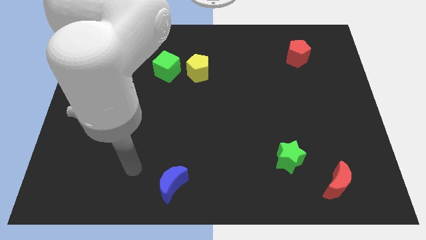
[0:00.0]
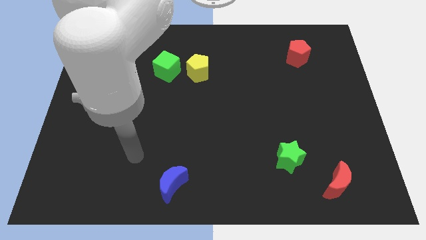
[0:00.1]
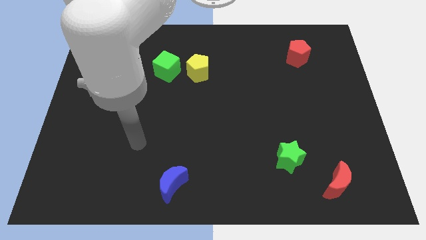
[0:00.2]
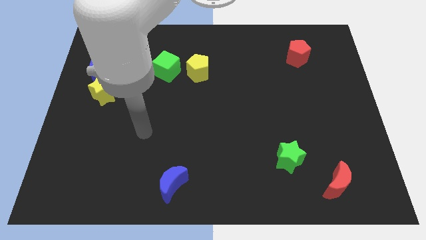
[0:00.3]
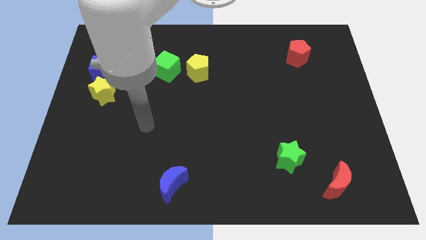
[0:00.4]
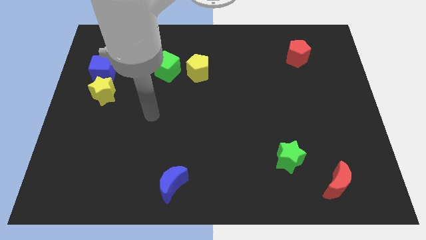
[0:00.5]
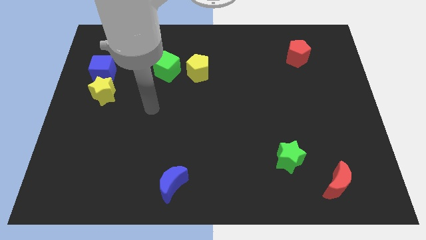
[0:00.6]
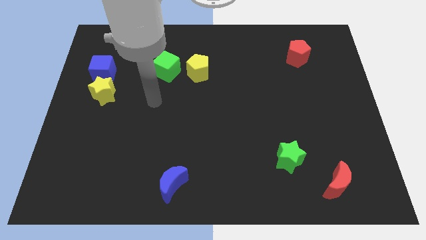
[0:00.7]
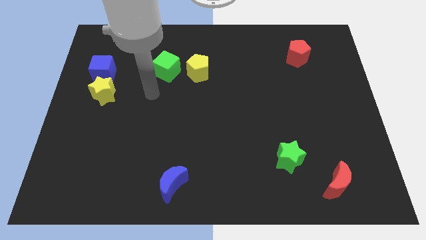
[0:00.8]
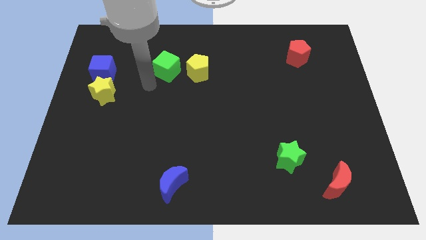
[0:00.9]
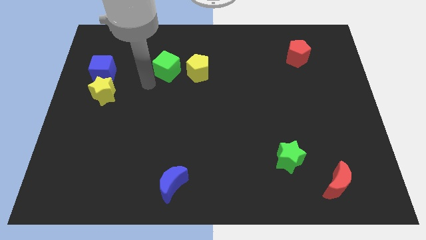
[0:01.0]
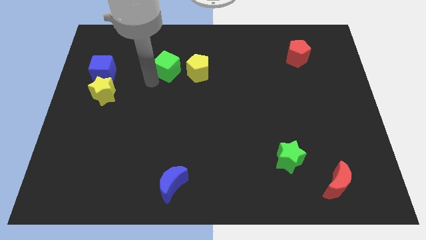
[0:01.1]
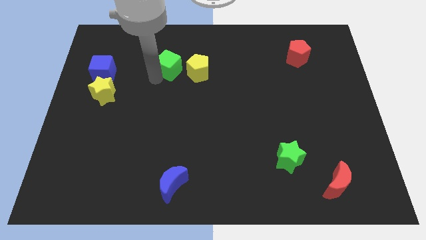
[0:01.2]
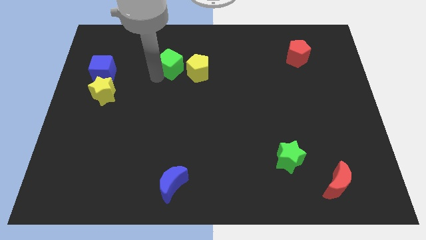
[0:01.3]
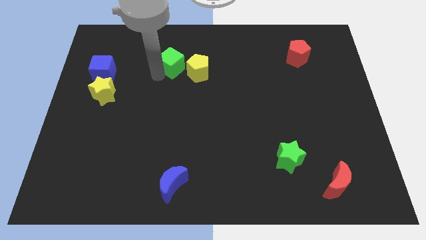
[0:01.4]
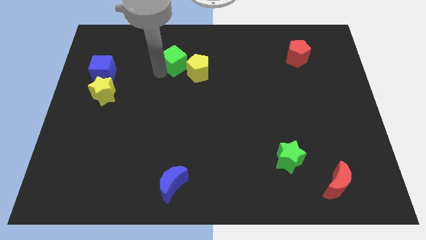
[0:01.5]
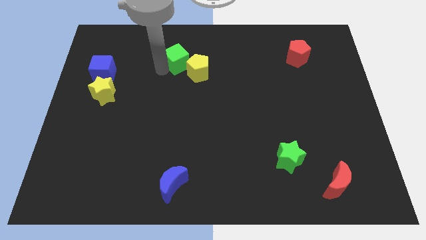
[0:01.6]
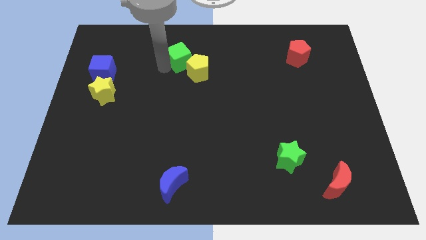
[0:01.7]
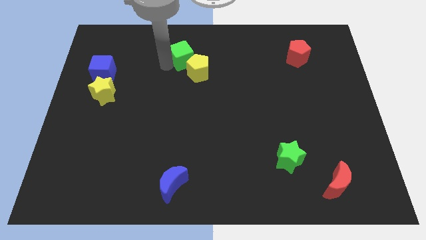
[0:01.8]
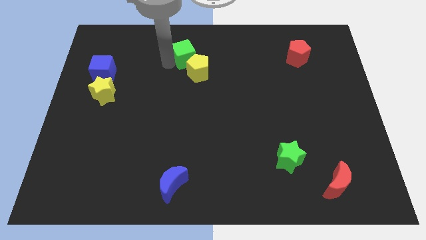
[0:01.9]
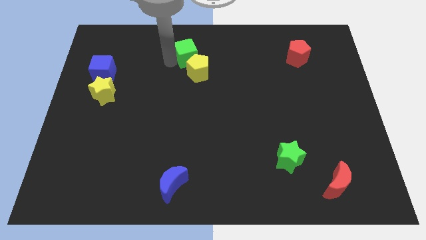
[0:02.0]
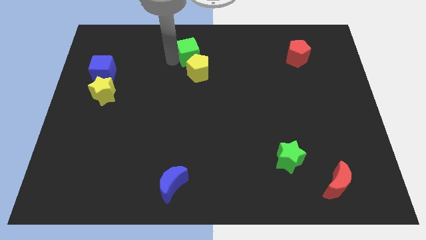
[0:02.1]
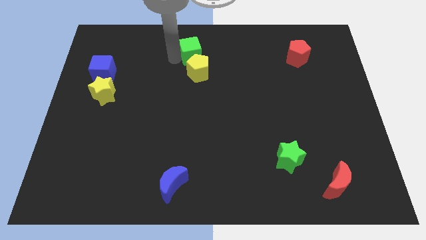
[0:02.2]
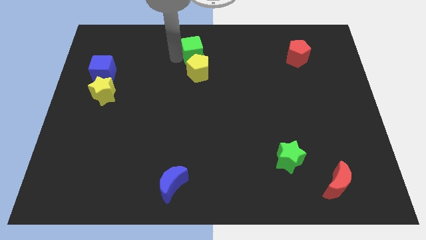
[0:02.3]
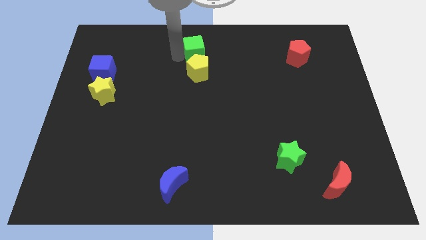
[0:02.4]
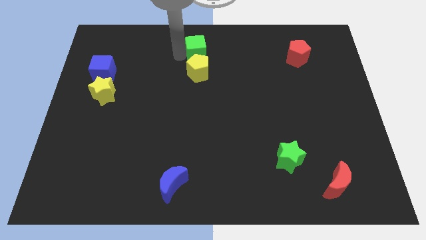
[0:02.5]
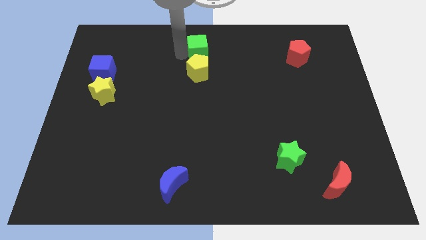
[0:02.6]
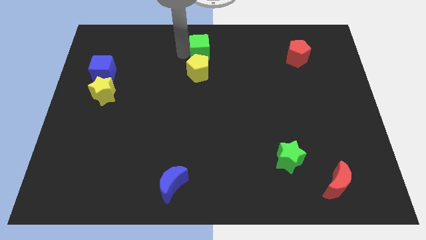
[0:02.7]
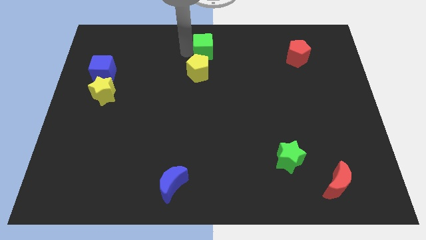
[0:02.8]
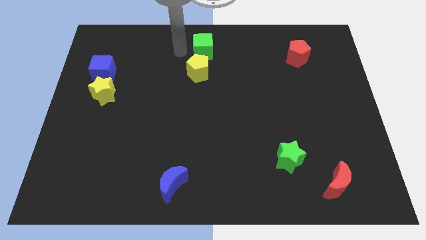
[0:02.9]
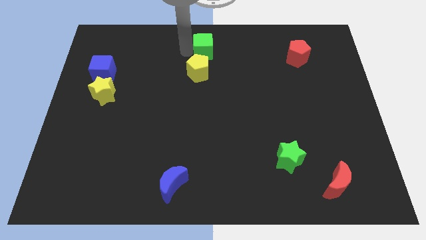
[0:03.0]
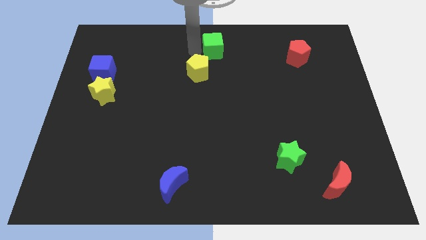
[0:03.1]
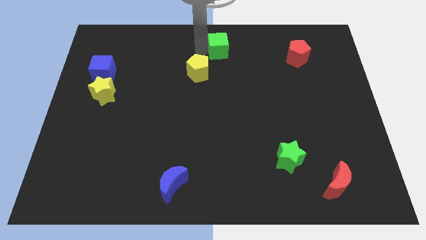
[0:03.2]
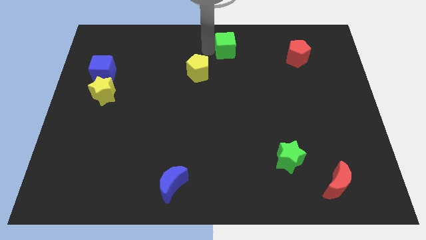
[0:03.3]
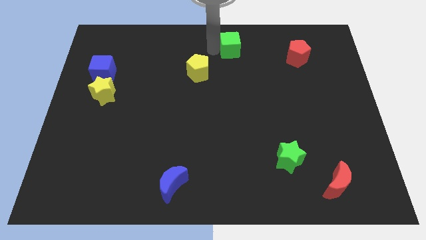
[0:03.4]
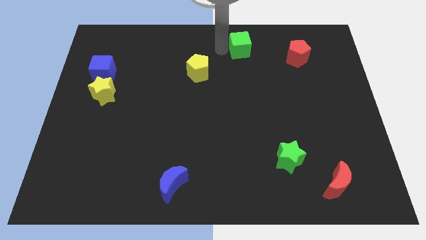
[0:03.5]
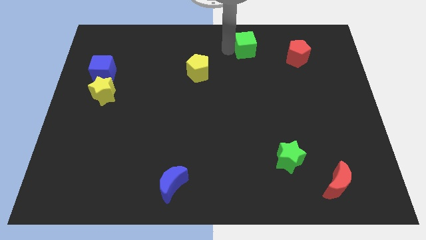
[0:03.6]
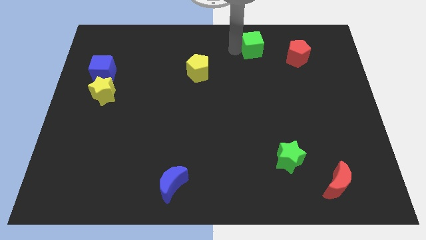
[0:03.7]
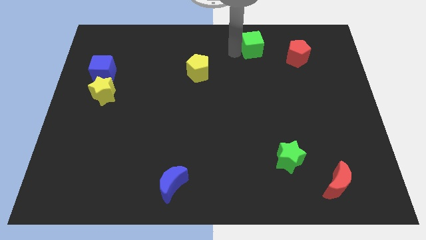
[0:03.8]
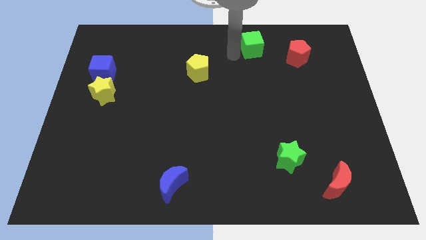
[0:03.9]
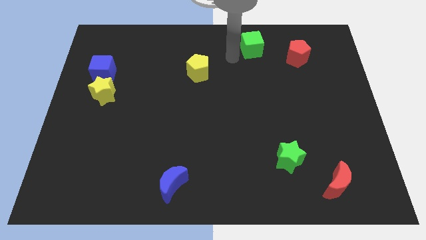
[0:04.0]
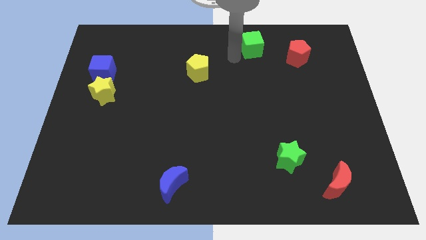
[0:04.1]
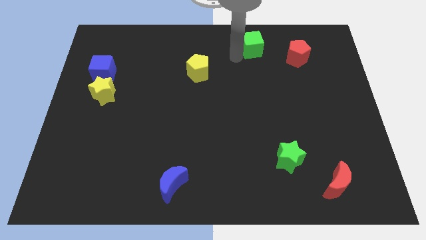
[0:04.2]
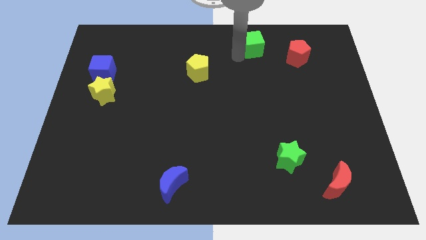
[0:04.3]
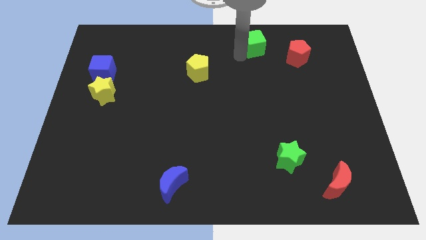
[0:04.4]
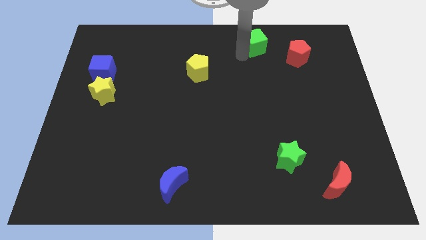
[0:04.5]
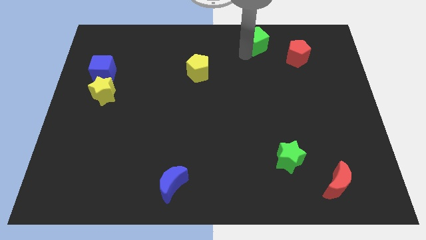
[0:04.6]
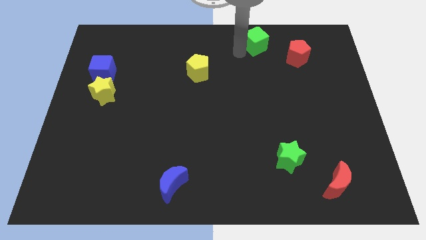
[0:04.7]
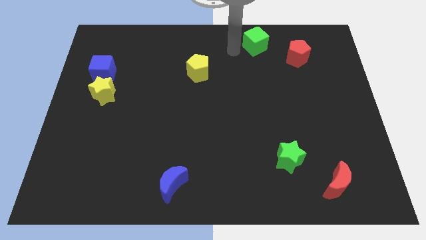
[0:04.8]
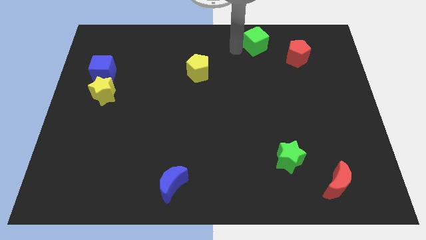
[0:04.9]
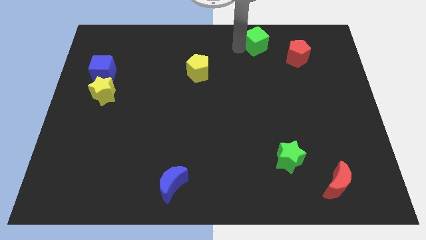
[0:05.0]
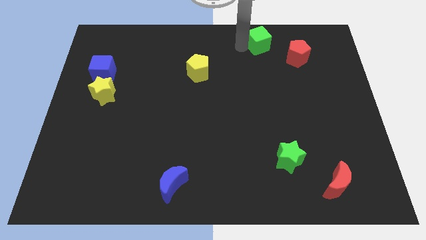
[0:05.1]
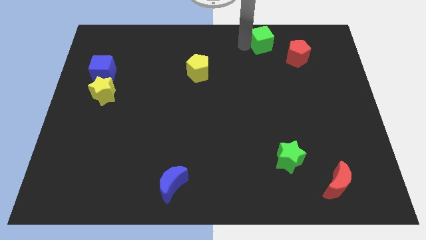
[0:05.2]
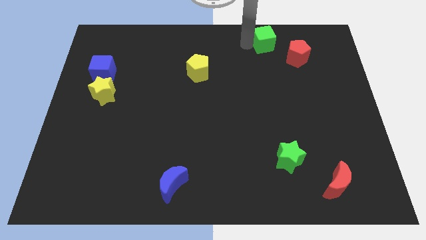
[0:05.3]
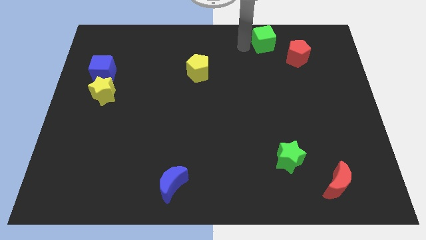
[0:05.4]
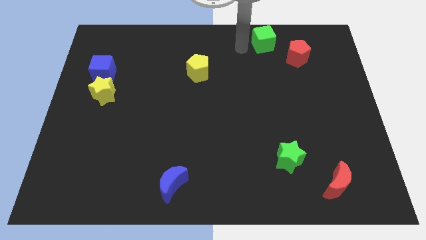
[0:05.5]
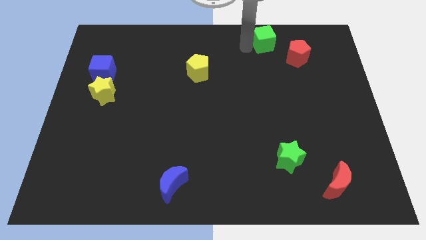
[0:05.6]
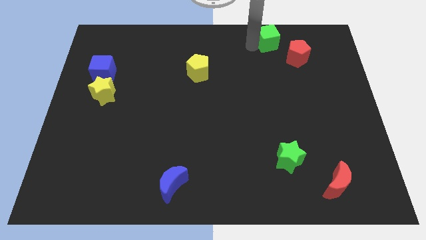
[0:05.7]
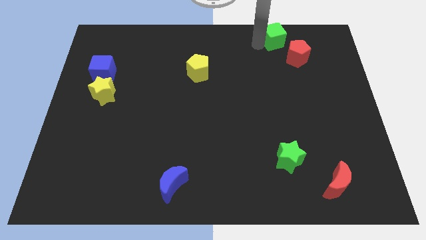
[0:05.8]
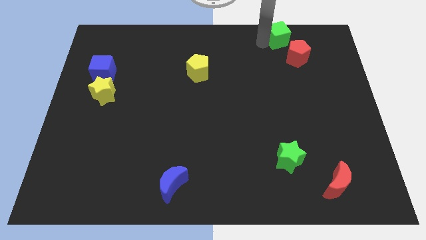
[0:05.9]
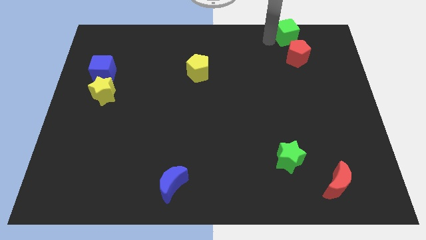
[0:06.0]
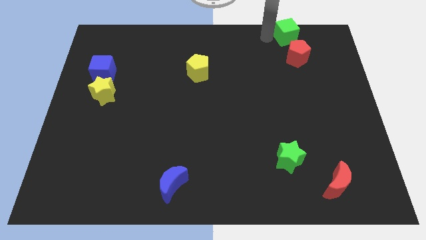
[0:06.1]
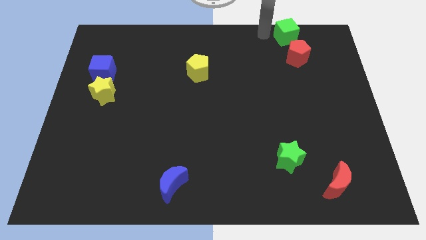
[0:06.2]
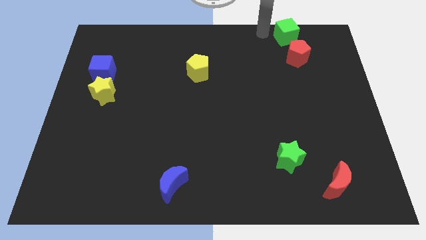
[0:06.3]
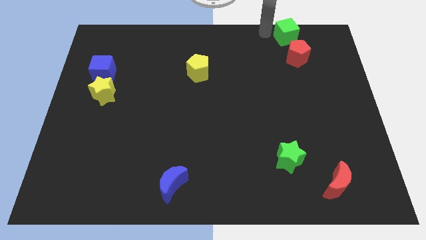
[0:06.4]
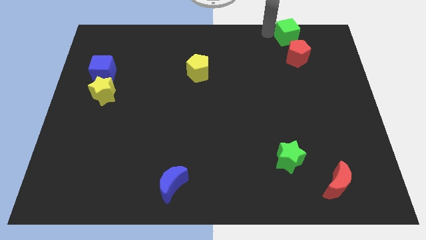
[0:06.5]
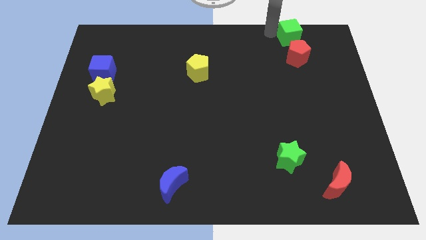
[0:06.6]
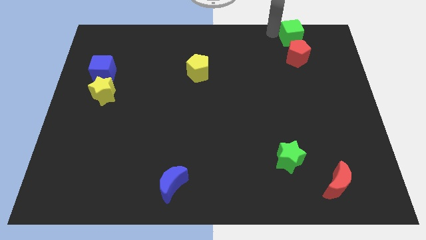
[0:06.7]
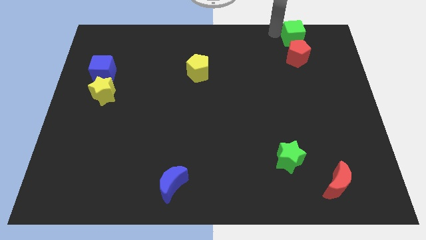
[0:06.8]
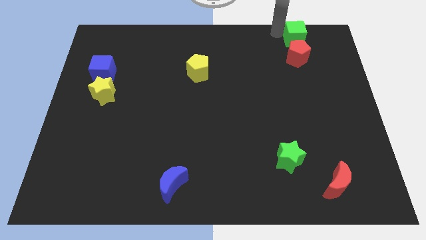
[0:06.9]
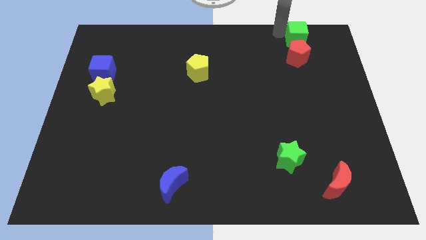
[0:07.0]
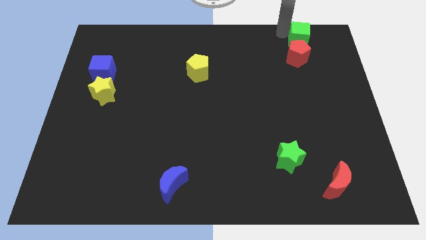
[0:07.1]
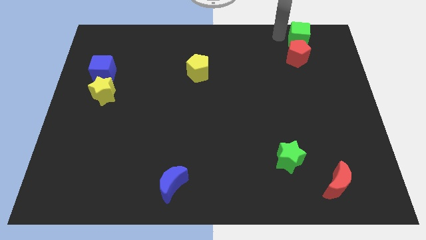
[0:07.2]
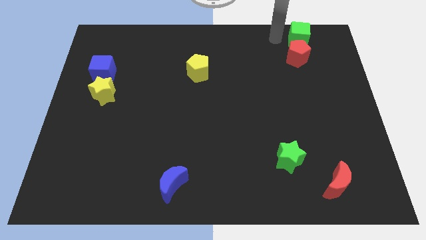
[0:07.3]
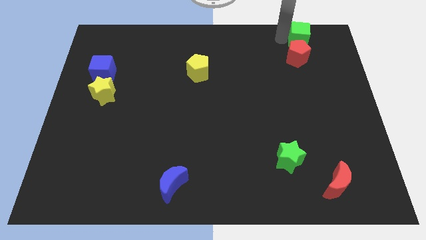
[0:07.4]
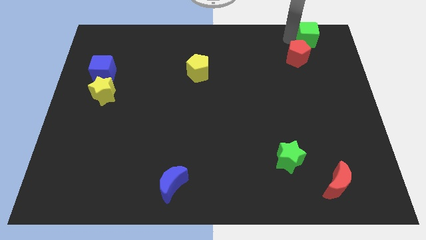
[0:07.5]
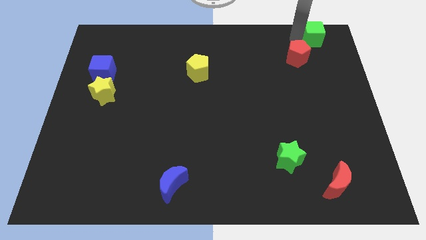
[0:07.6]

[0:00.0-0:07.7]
move the green cube to the upper right corner
